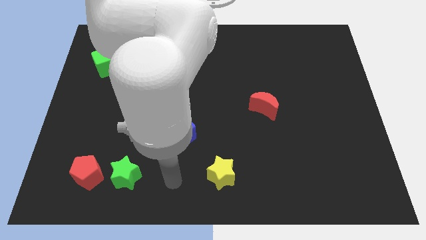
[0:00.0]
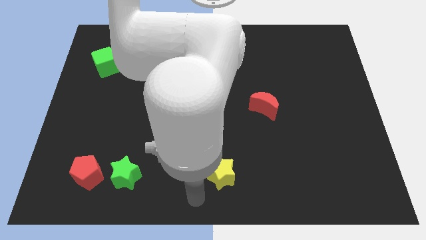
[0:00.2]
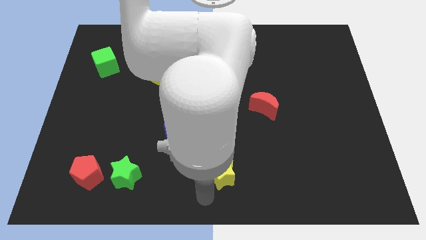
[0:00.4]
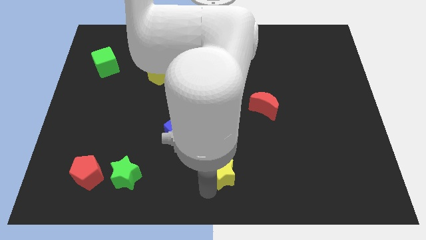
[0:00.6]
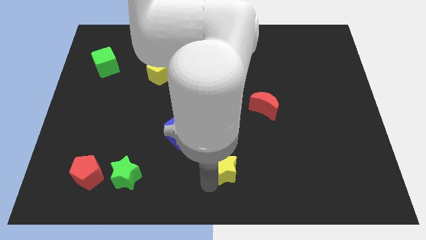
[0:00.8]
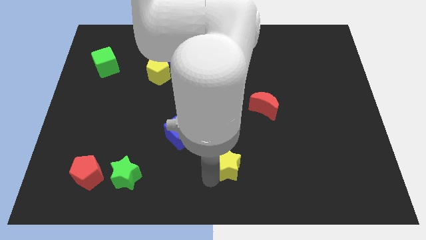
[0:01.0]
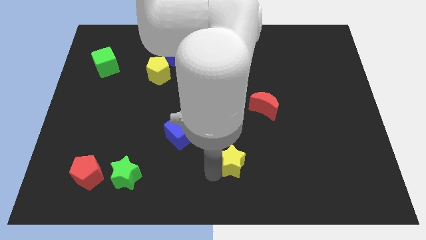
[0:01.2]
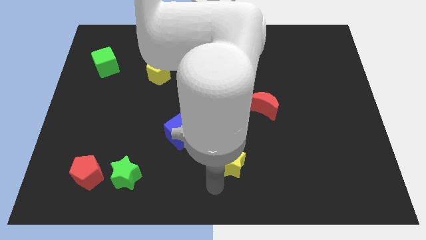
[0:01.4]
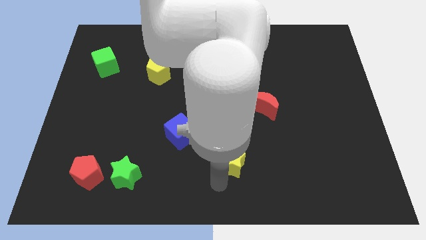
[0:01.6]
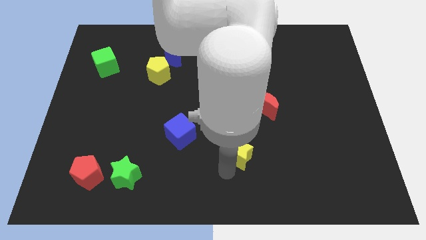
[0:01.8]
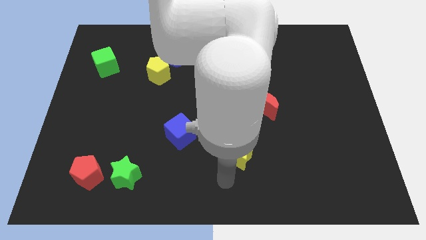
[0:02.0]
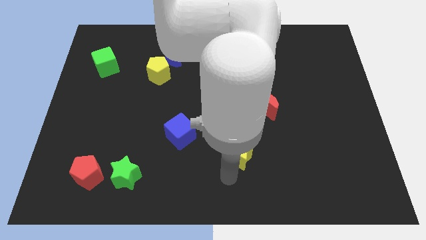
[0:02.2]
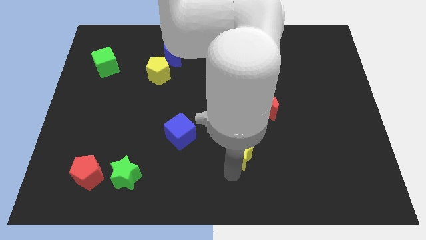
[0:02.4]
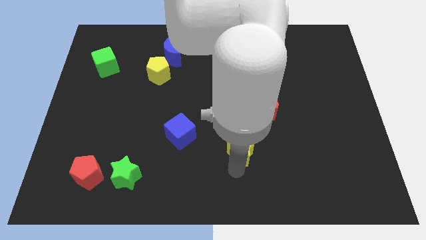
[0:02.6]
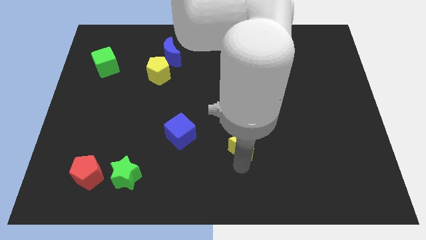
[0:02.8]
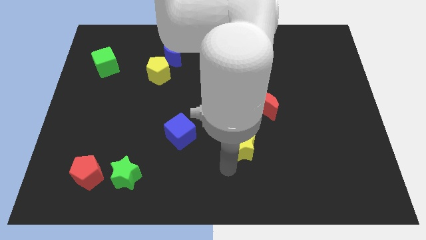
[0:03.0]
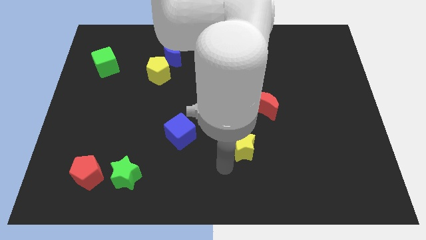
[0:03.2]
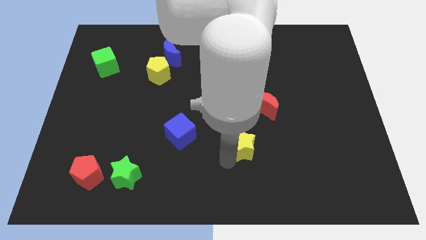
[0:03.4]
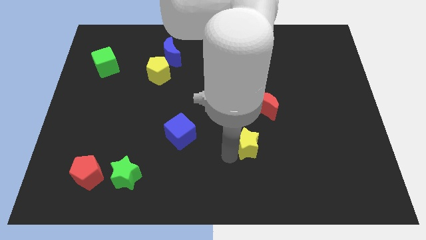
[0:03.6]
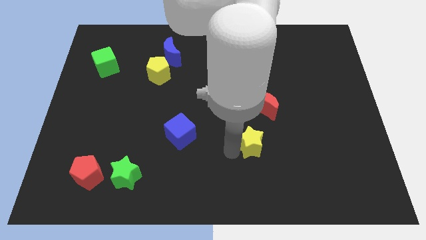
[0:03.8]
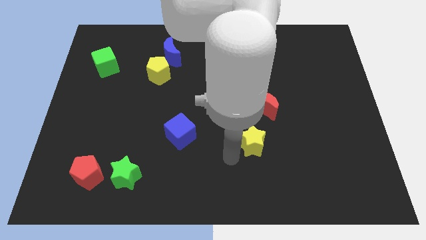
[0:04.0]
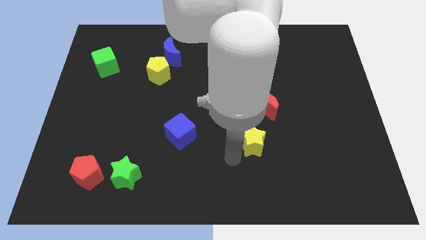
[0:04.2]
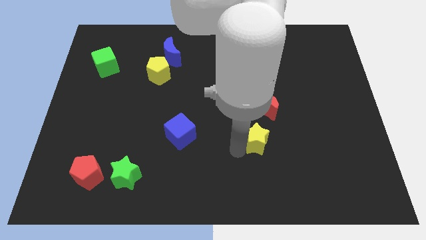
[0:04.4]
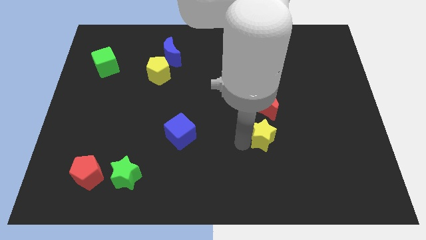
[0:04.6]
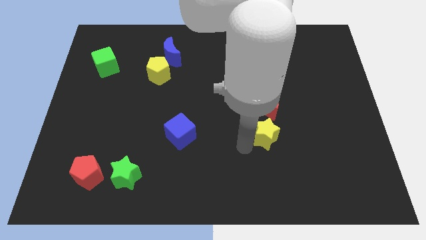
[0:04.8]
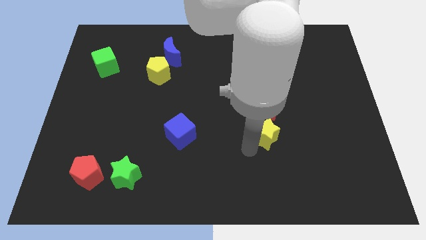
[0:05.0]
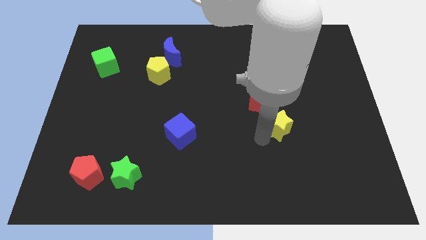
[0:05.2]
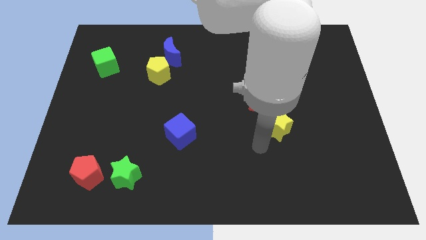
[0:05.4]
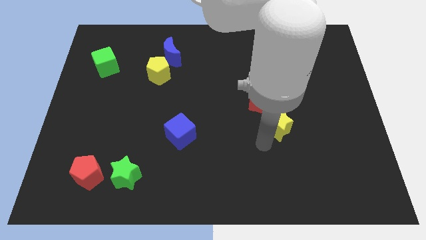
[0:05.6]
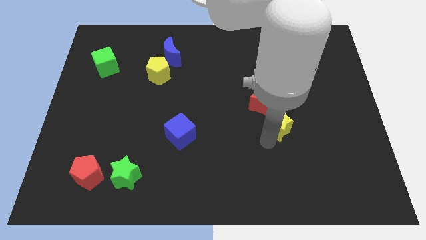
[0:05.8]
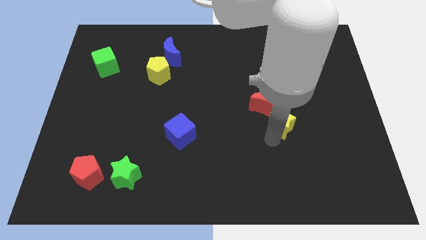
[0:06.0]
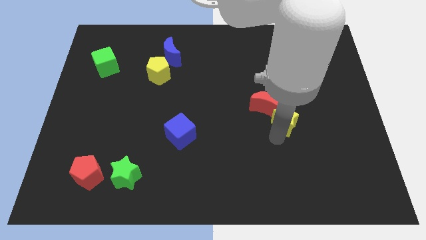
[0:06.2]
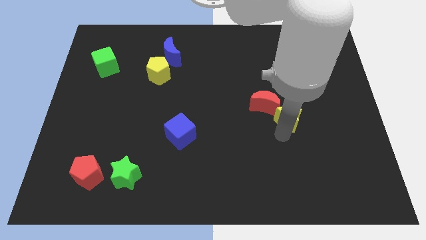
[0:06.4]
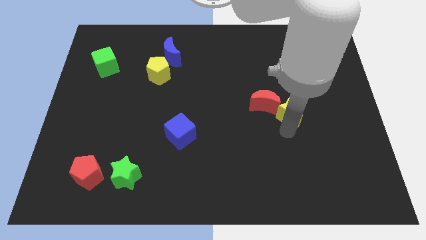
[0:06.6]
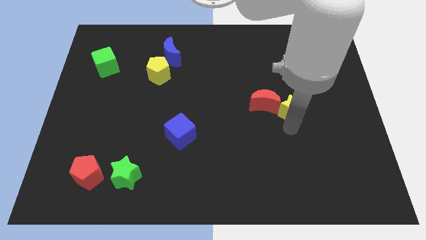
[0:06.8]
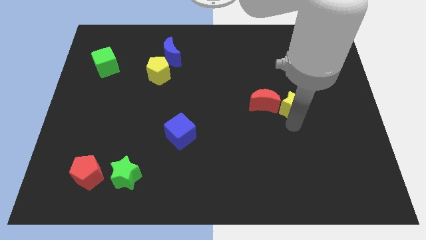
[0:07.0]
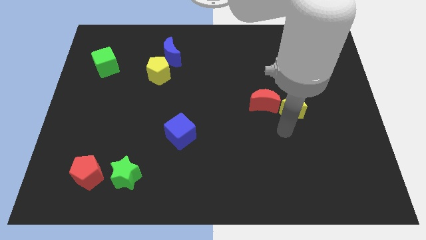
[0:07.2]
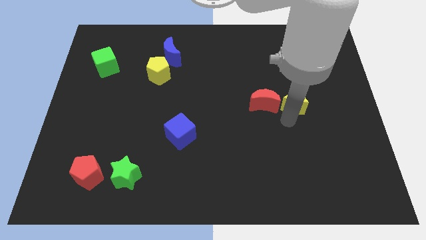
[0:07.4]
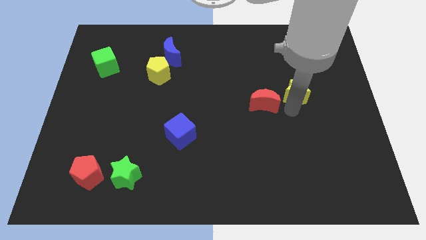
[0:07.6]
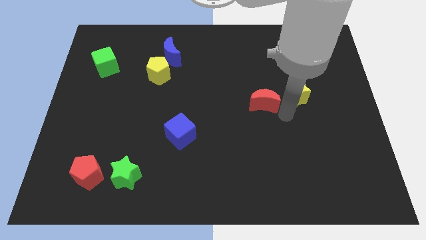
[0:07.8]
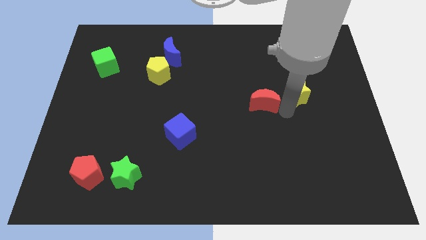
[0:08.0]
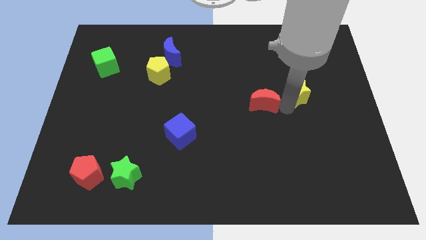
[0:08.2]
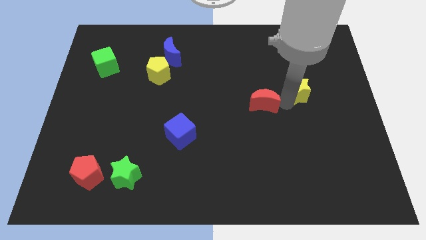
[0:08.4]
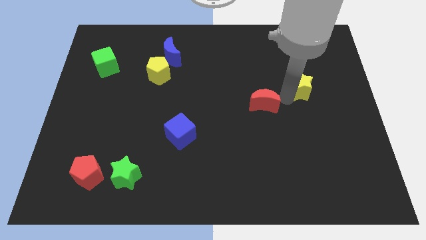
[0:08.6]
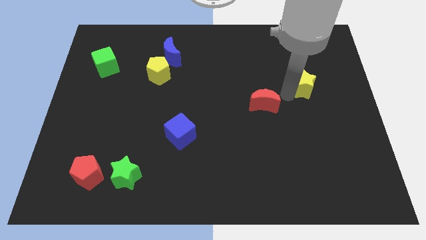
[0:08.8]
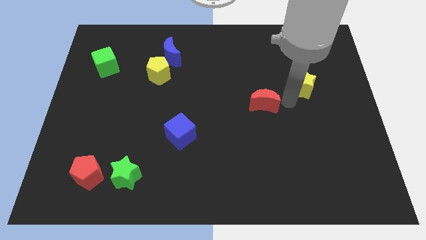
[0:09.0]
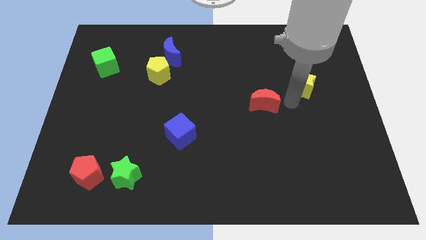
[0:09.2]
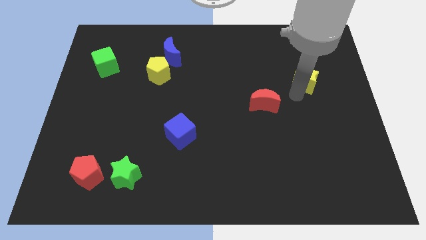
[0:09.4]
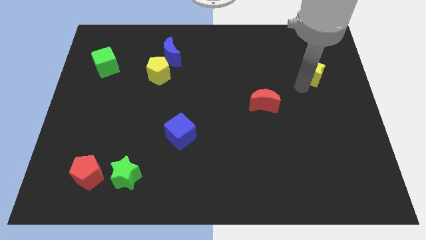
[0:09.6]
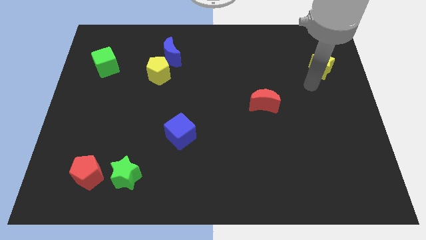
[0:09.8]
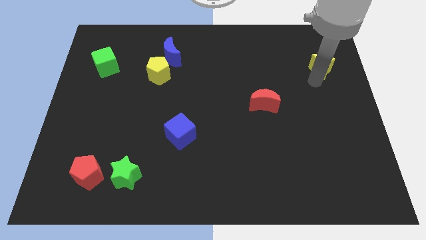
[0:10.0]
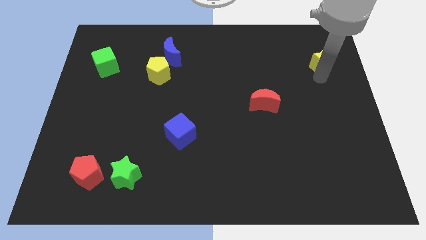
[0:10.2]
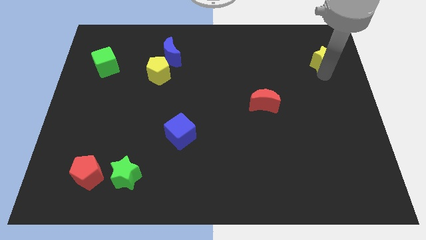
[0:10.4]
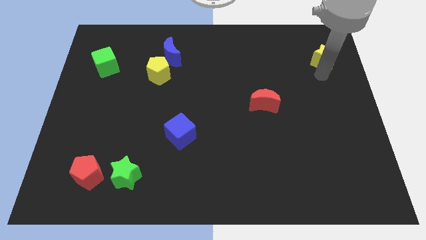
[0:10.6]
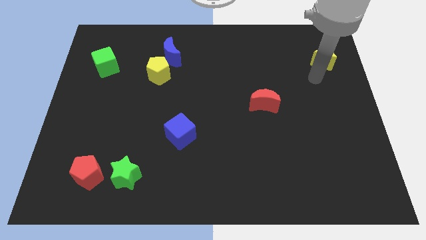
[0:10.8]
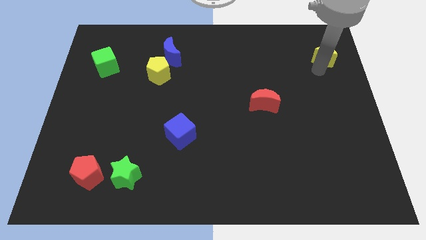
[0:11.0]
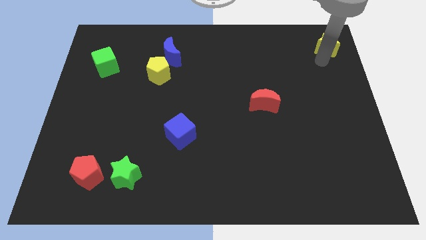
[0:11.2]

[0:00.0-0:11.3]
put the yellow star to the top right corner

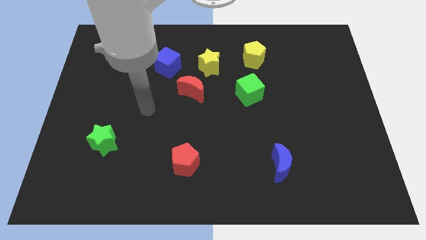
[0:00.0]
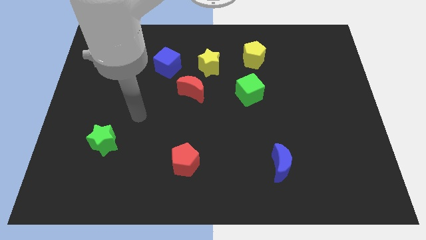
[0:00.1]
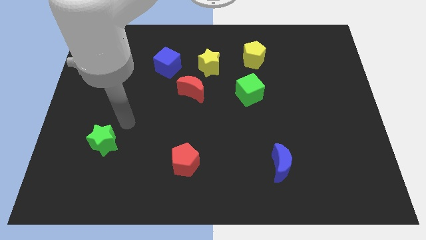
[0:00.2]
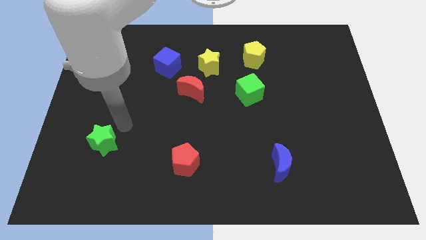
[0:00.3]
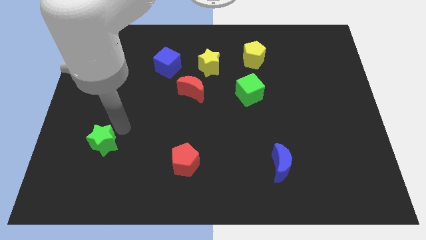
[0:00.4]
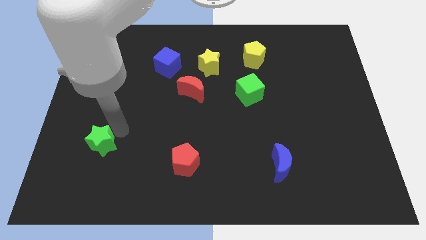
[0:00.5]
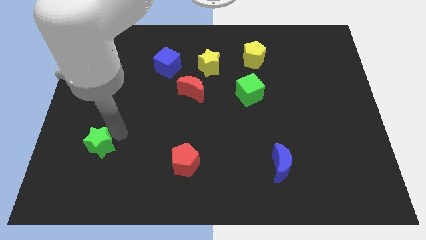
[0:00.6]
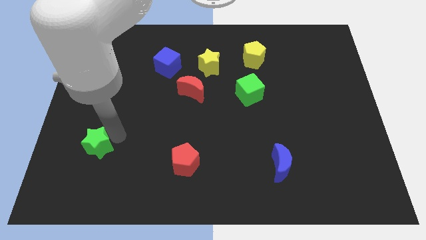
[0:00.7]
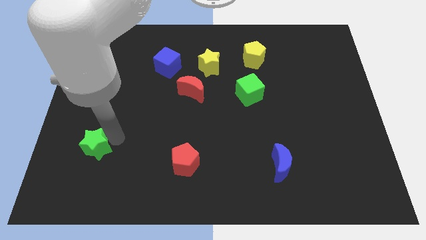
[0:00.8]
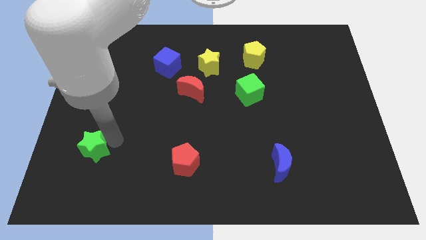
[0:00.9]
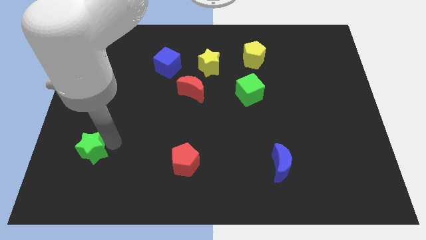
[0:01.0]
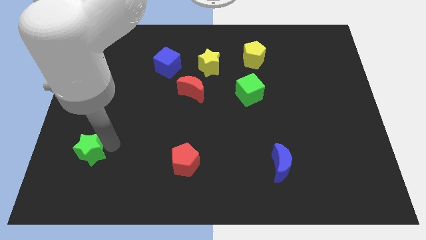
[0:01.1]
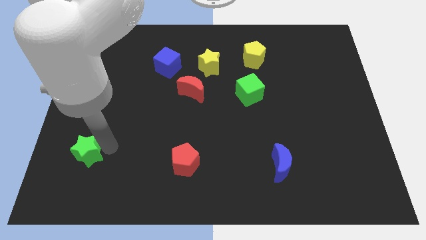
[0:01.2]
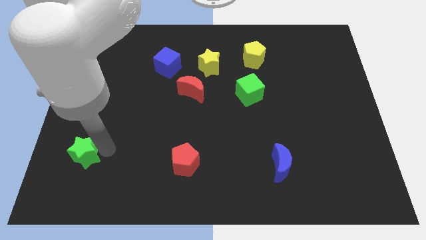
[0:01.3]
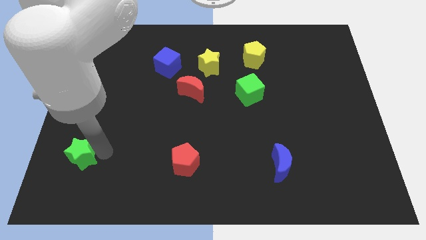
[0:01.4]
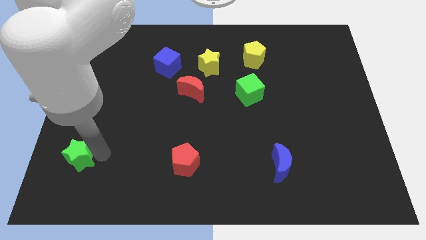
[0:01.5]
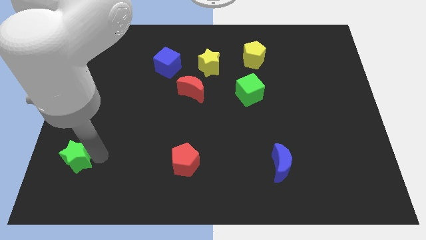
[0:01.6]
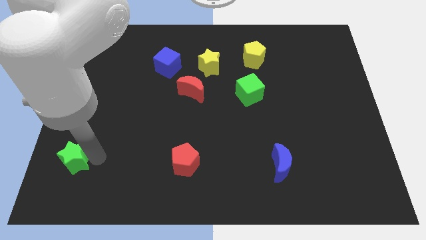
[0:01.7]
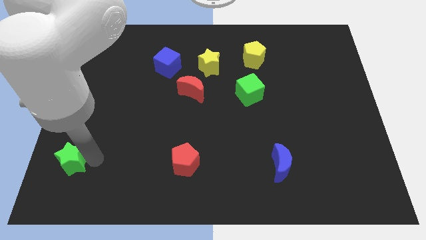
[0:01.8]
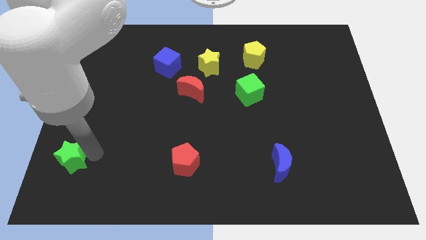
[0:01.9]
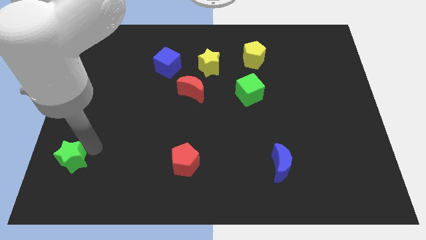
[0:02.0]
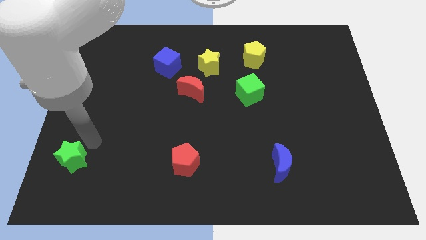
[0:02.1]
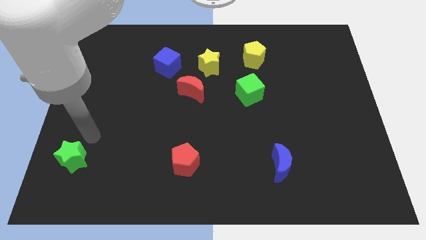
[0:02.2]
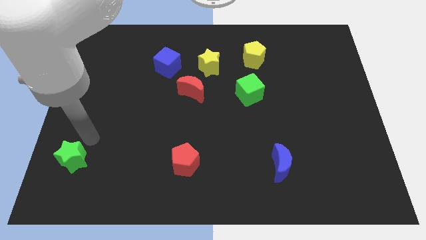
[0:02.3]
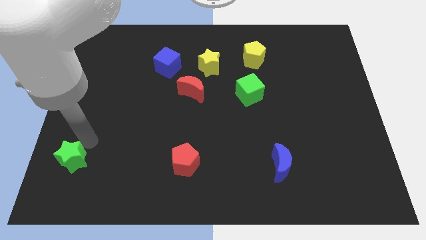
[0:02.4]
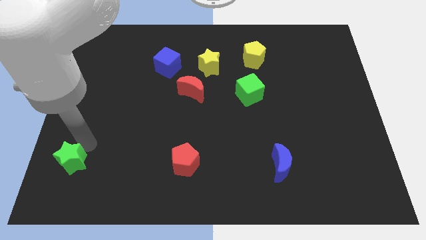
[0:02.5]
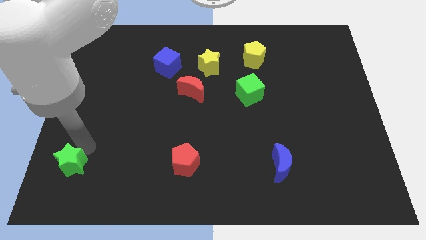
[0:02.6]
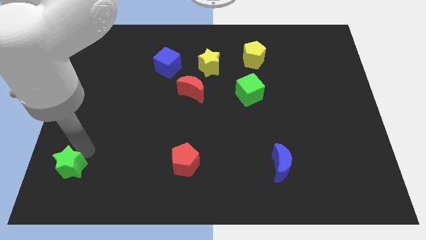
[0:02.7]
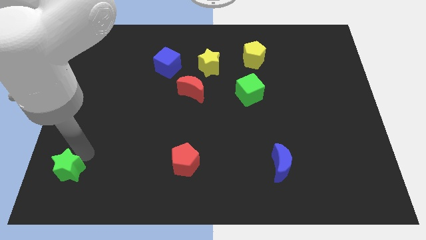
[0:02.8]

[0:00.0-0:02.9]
slide the green star to the bottom left
